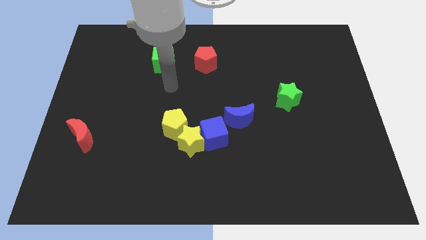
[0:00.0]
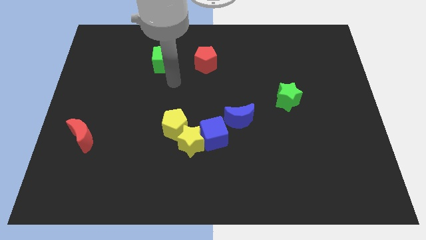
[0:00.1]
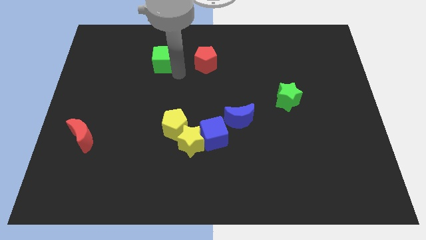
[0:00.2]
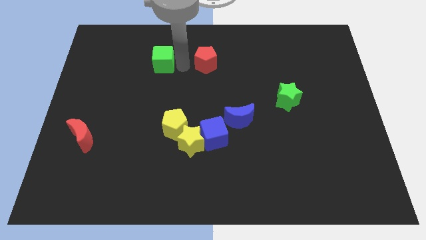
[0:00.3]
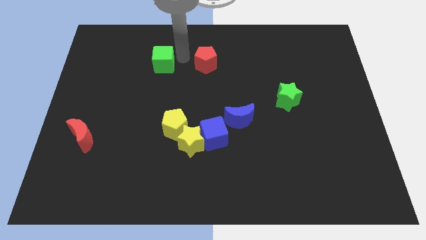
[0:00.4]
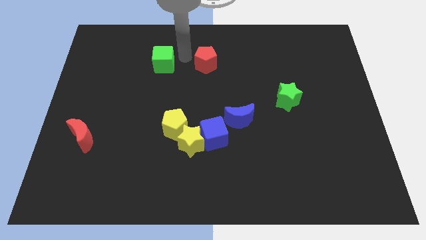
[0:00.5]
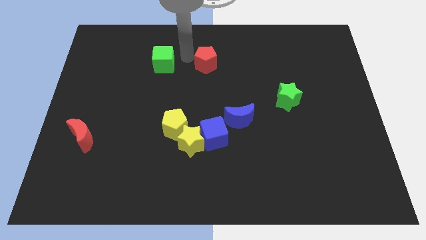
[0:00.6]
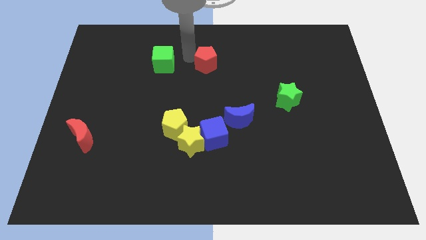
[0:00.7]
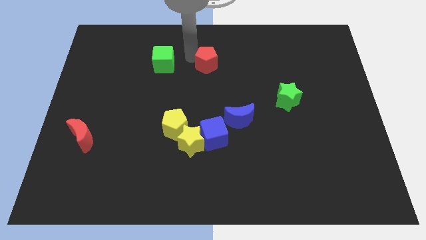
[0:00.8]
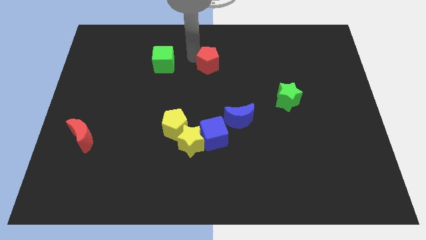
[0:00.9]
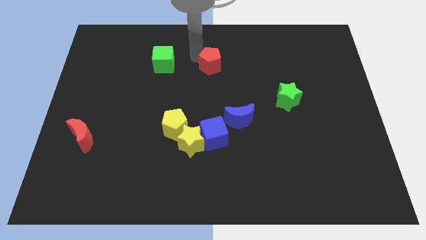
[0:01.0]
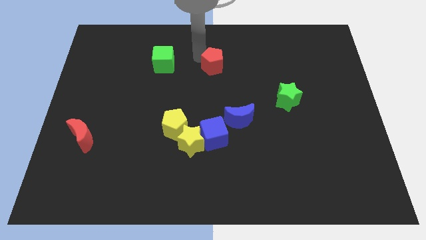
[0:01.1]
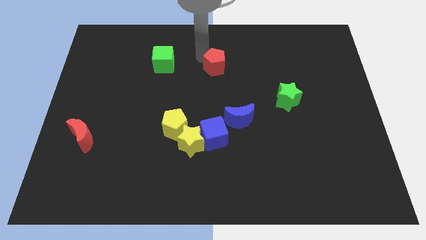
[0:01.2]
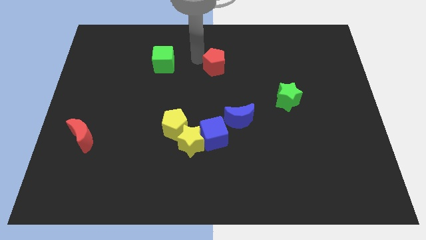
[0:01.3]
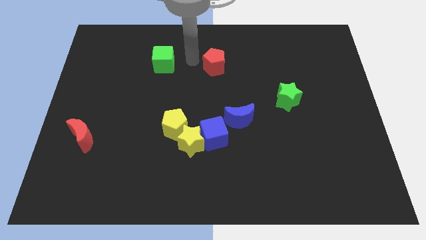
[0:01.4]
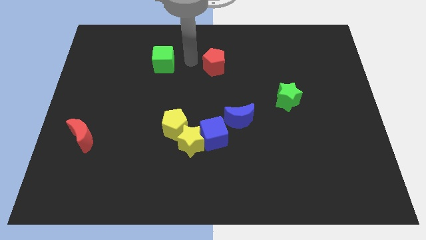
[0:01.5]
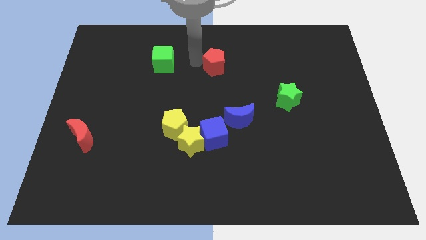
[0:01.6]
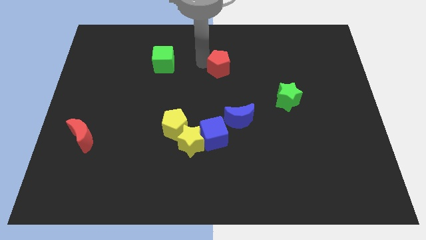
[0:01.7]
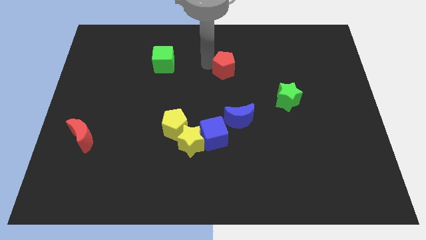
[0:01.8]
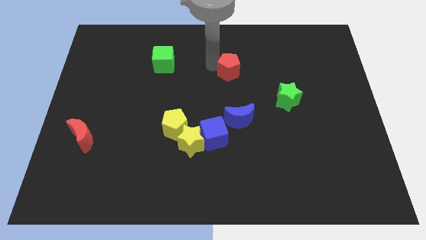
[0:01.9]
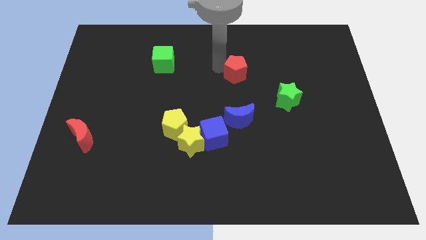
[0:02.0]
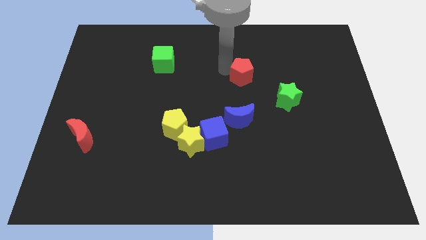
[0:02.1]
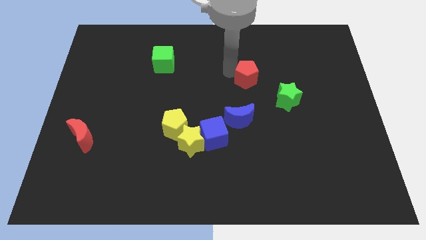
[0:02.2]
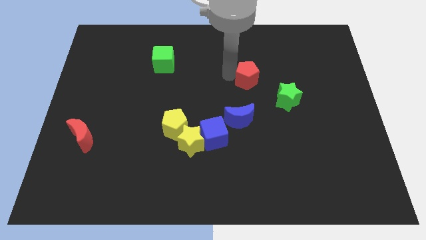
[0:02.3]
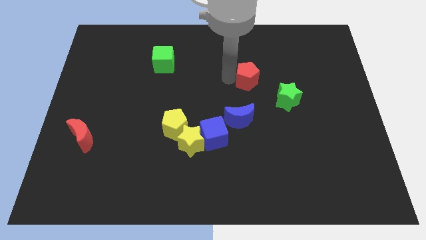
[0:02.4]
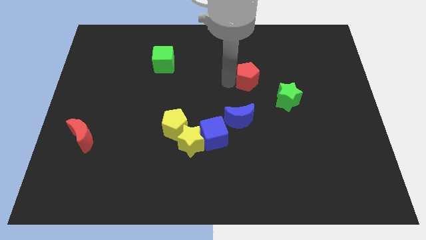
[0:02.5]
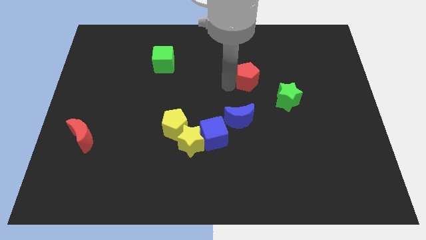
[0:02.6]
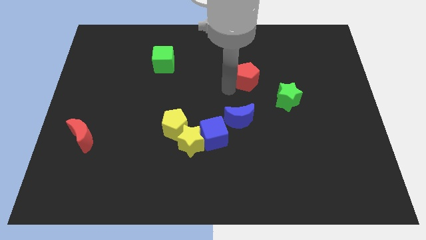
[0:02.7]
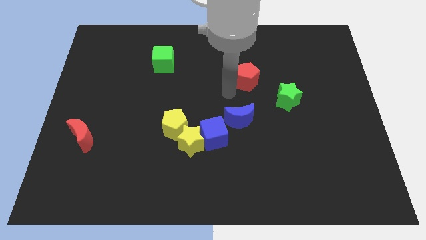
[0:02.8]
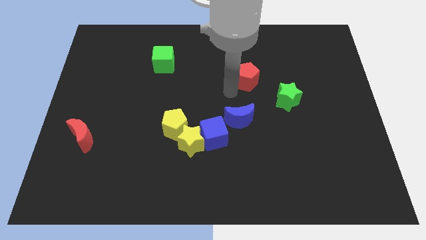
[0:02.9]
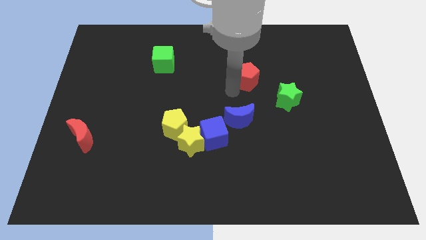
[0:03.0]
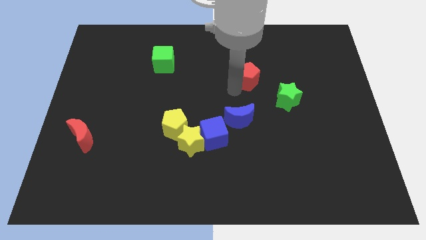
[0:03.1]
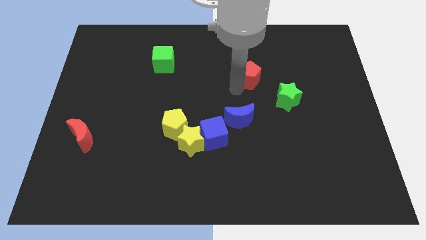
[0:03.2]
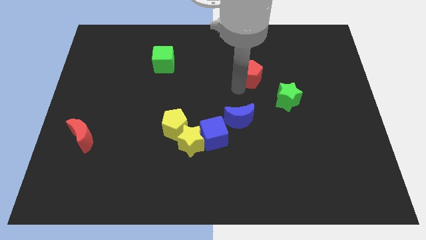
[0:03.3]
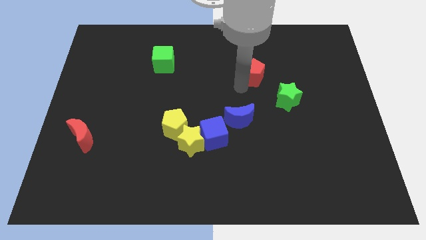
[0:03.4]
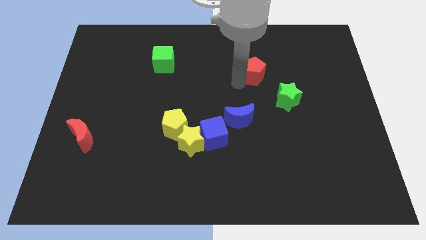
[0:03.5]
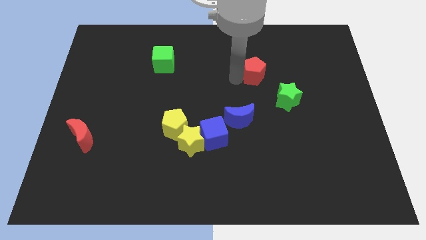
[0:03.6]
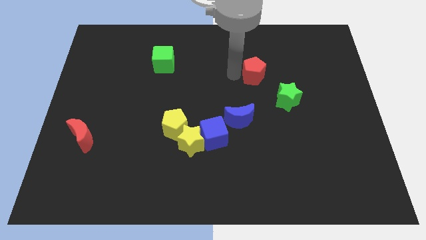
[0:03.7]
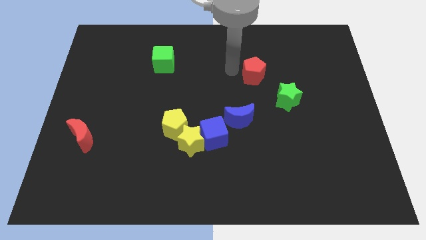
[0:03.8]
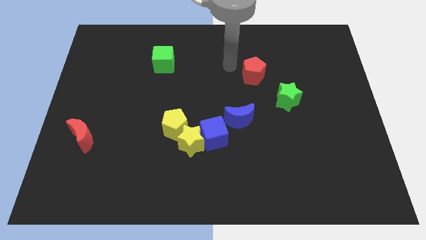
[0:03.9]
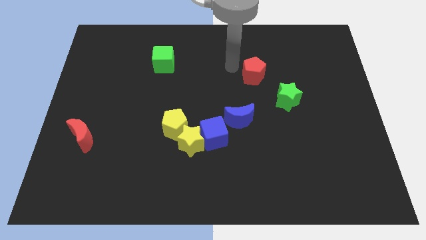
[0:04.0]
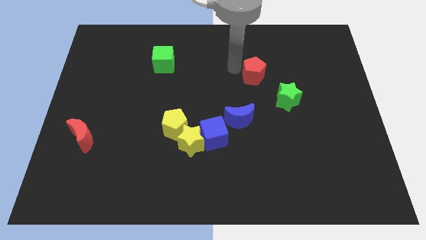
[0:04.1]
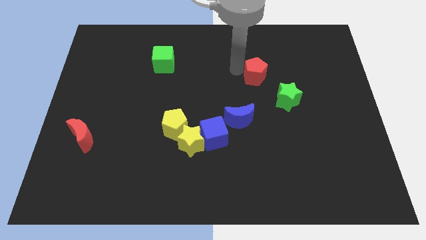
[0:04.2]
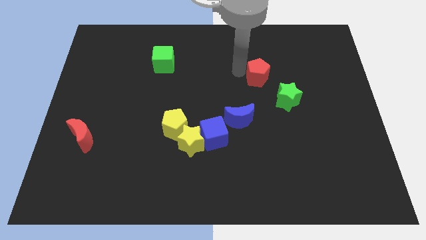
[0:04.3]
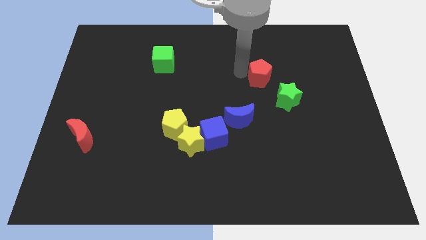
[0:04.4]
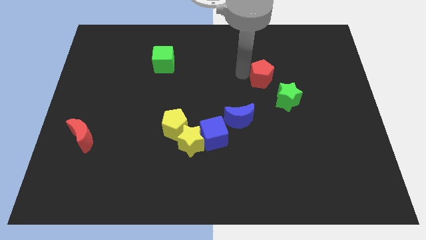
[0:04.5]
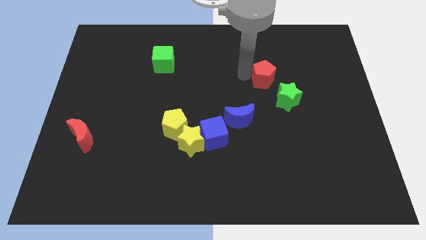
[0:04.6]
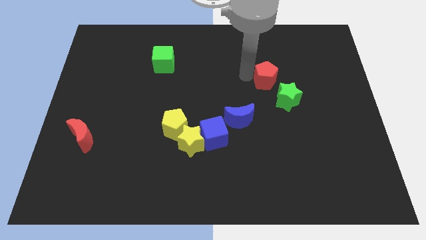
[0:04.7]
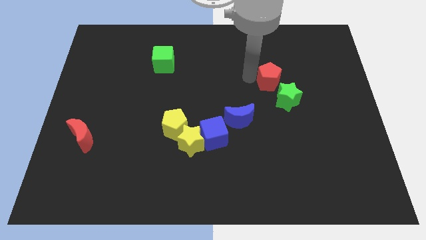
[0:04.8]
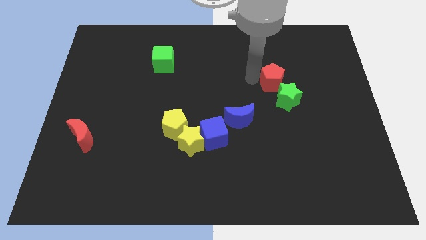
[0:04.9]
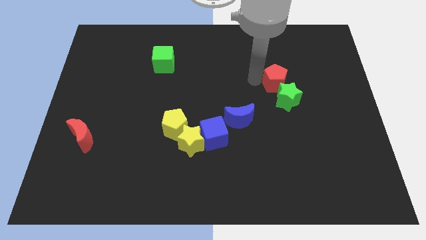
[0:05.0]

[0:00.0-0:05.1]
move the red pentagon close to the green star

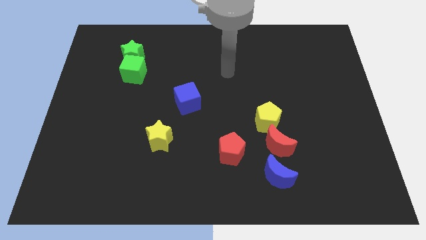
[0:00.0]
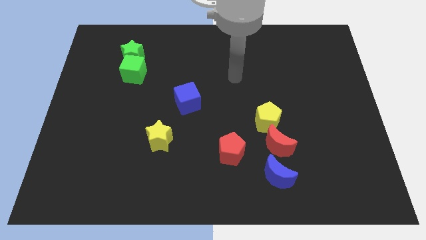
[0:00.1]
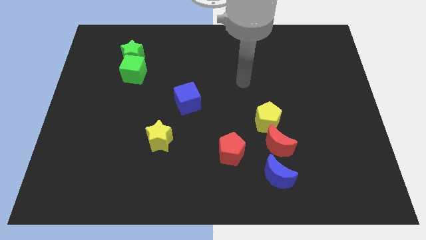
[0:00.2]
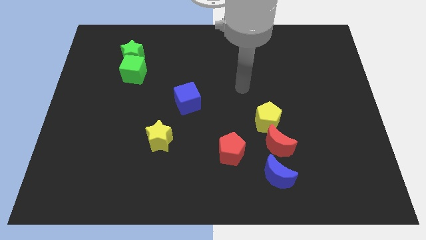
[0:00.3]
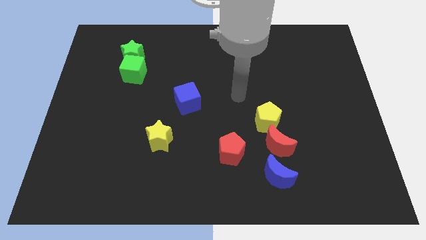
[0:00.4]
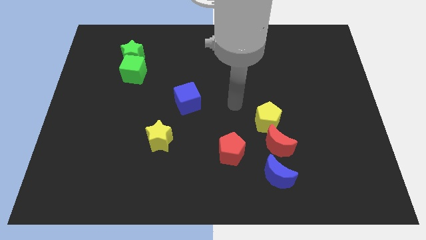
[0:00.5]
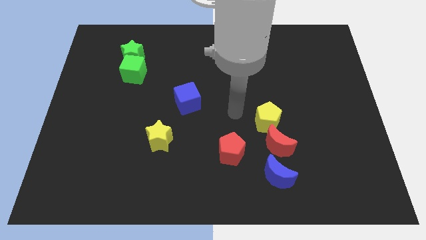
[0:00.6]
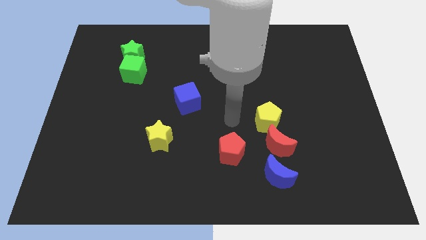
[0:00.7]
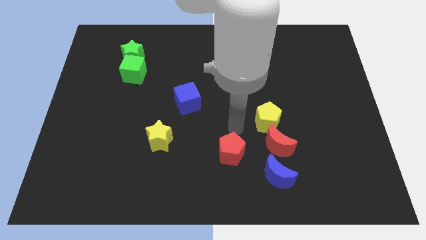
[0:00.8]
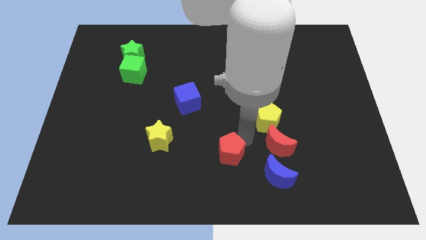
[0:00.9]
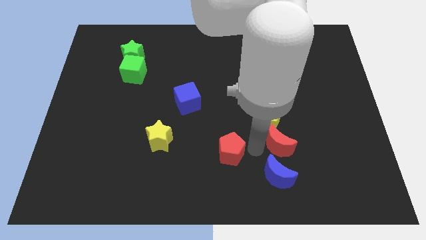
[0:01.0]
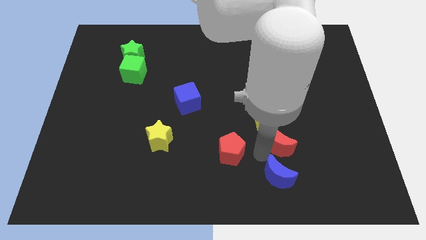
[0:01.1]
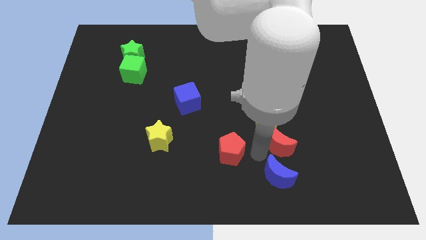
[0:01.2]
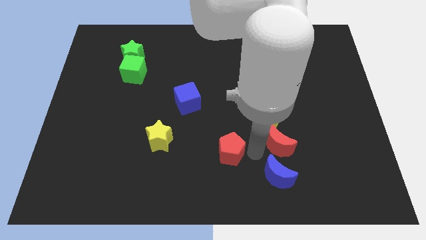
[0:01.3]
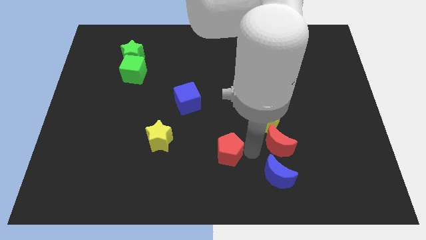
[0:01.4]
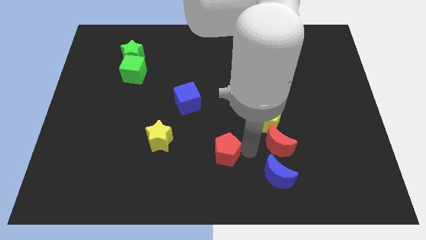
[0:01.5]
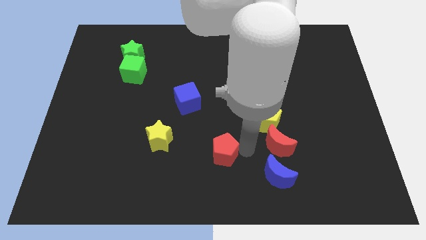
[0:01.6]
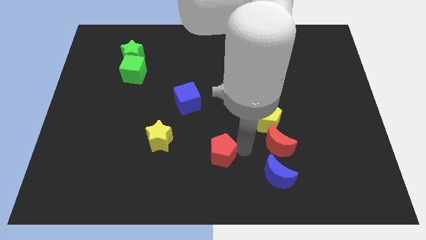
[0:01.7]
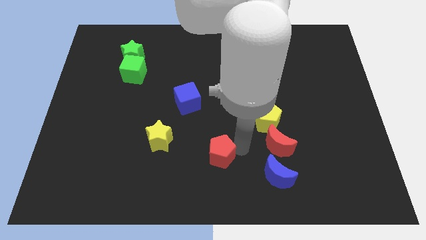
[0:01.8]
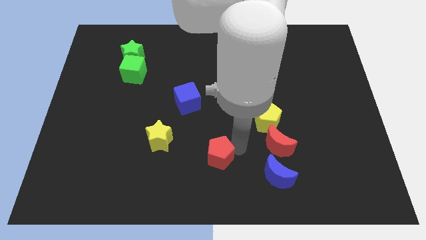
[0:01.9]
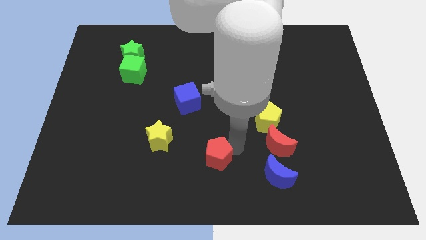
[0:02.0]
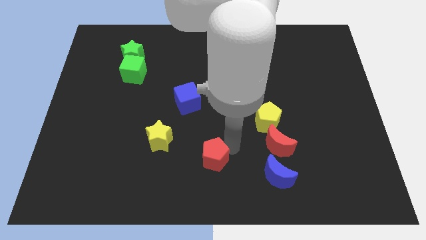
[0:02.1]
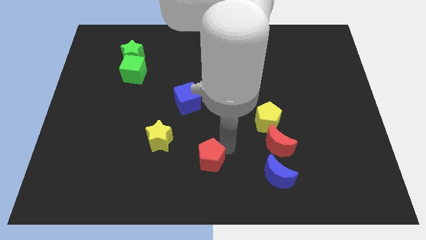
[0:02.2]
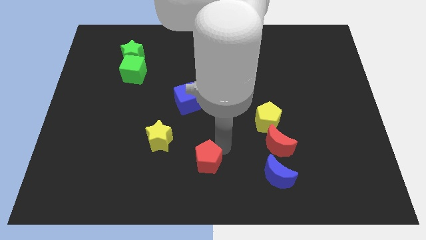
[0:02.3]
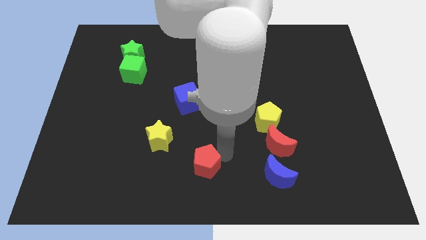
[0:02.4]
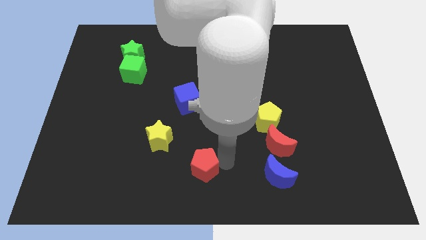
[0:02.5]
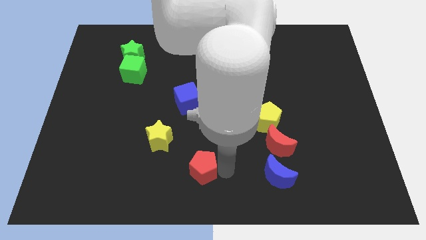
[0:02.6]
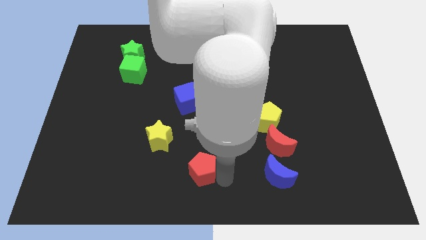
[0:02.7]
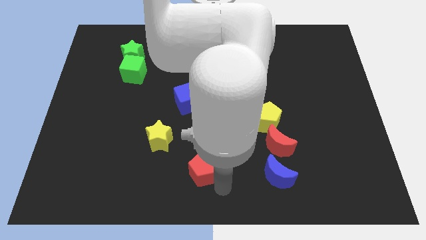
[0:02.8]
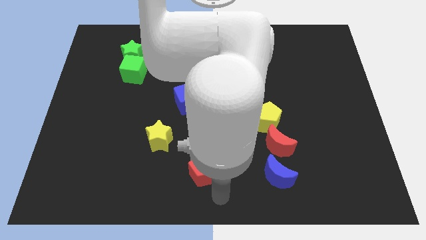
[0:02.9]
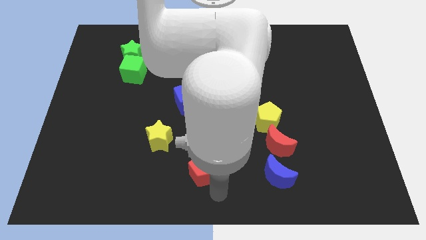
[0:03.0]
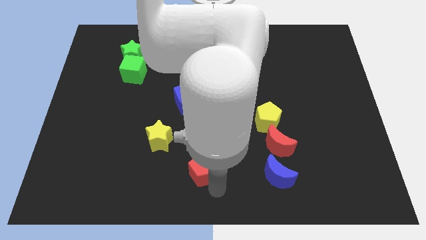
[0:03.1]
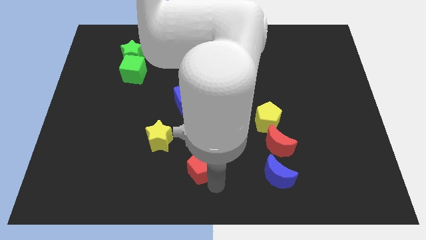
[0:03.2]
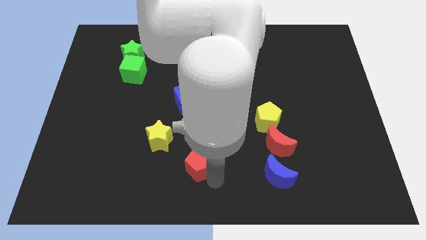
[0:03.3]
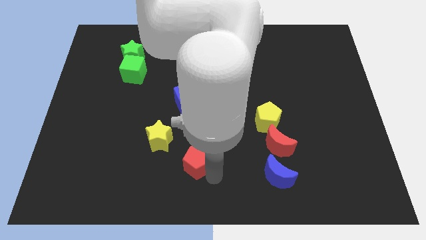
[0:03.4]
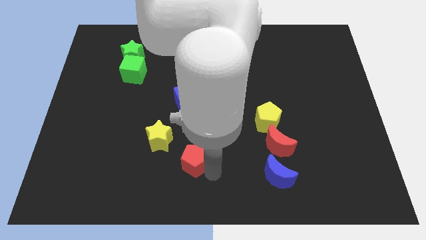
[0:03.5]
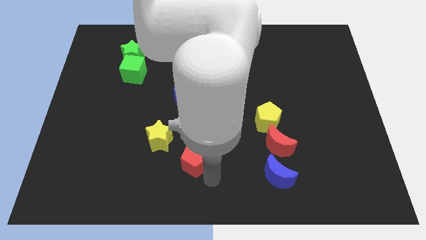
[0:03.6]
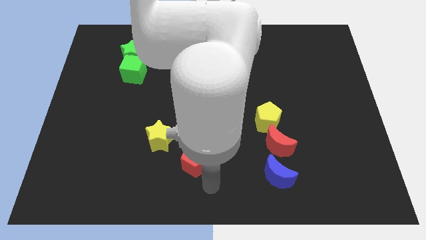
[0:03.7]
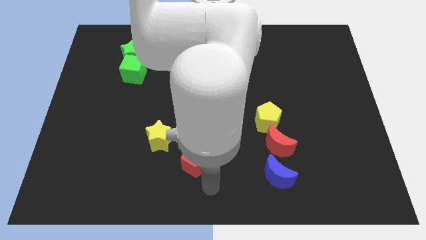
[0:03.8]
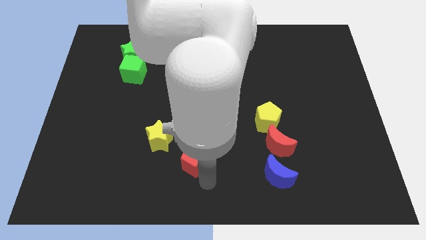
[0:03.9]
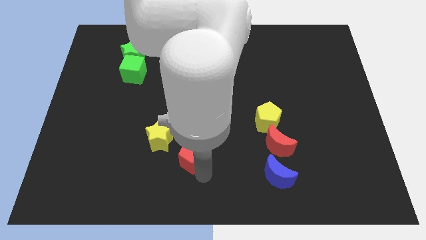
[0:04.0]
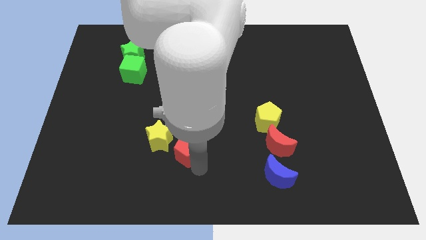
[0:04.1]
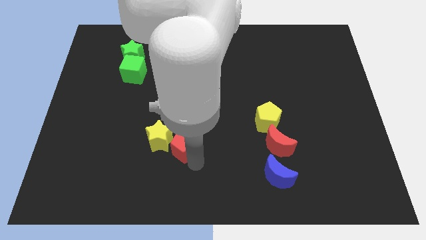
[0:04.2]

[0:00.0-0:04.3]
push the red pentagon close to the yellow star
